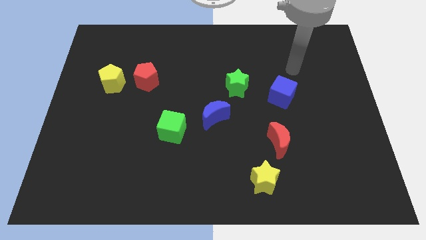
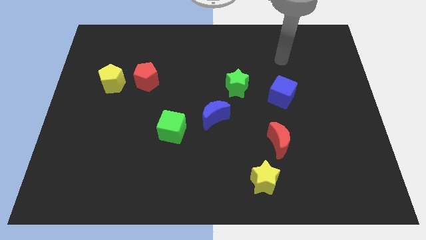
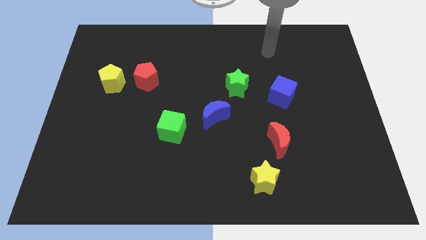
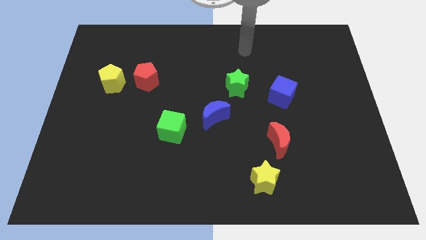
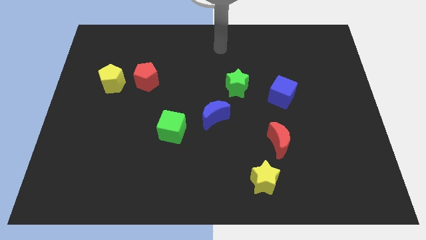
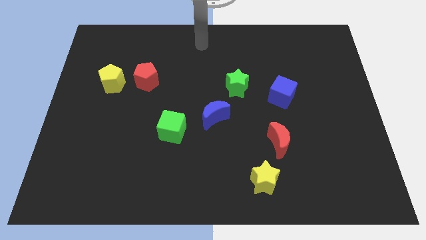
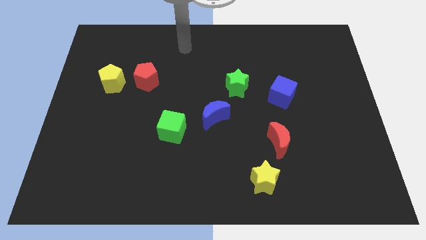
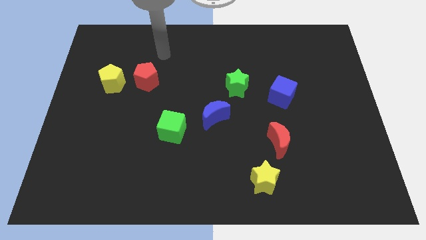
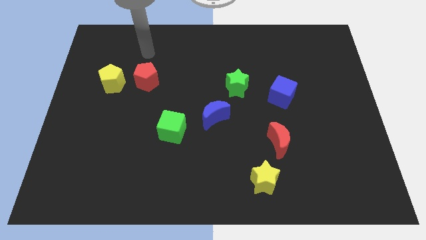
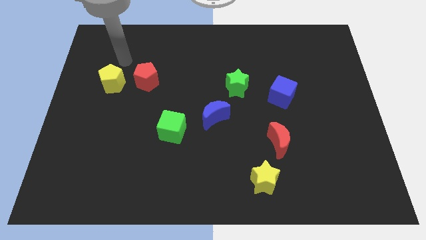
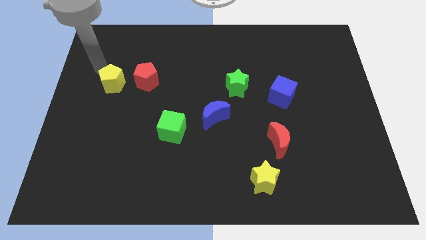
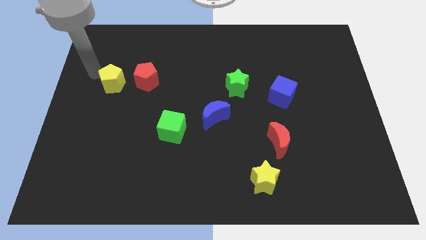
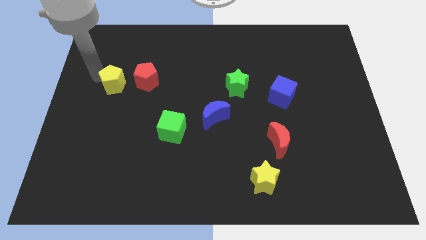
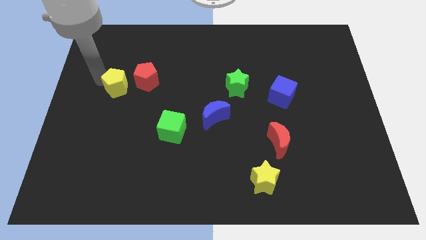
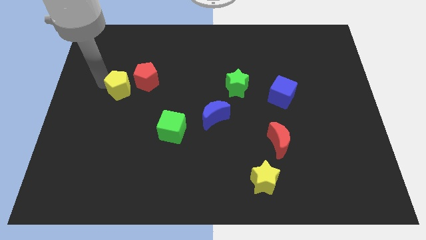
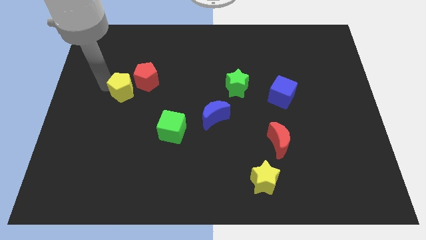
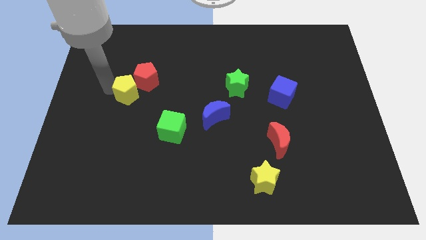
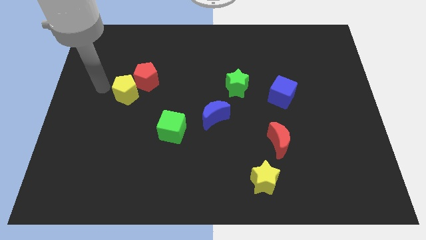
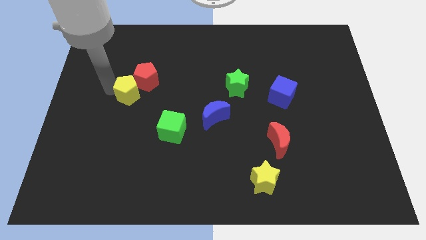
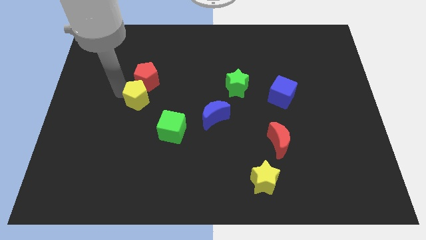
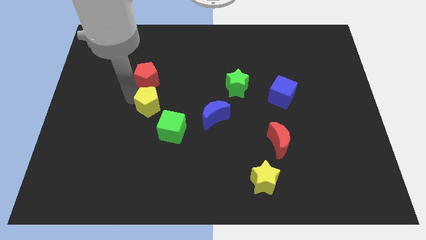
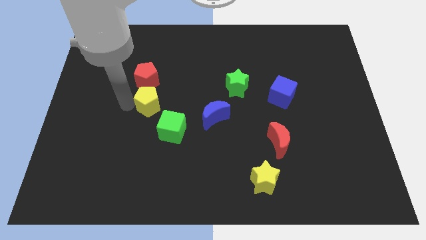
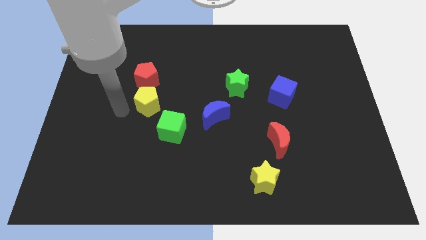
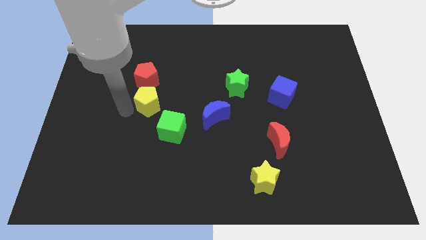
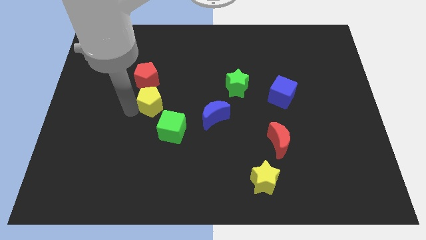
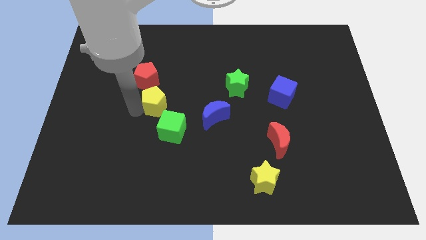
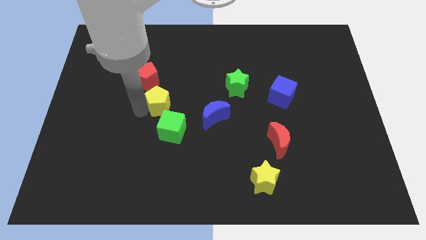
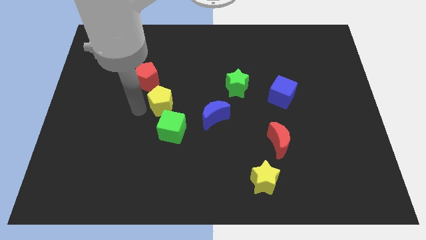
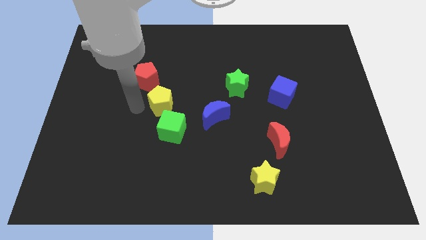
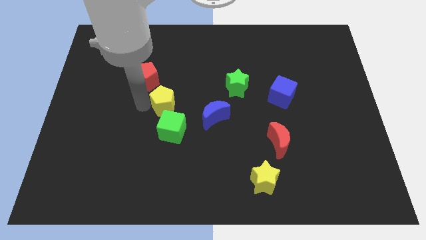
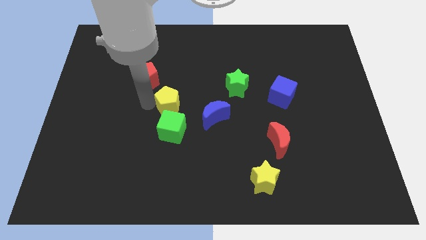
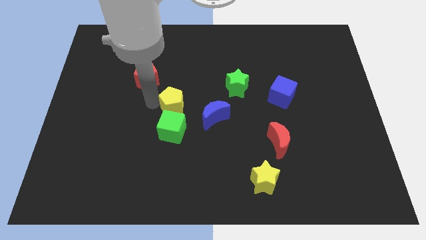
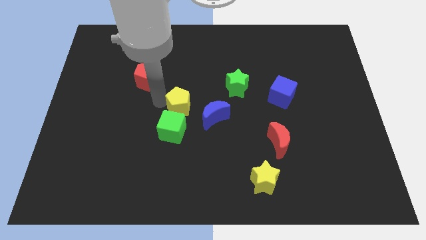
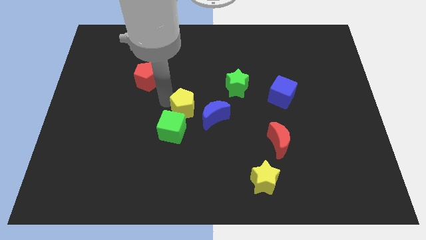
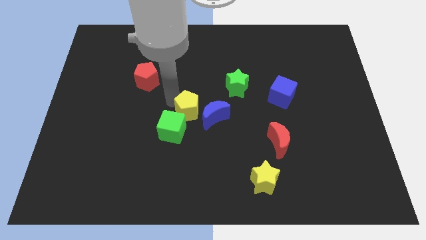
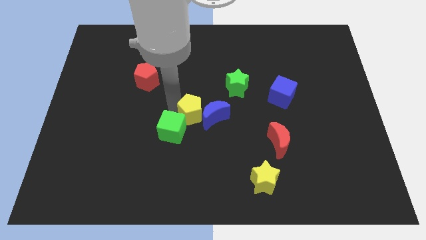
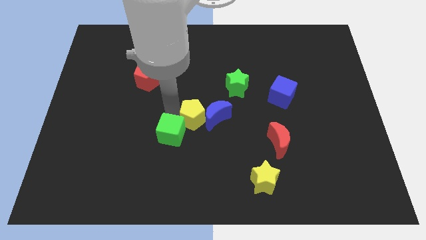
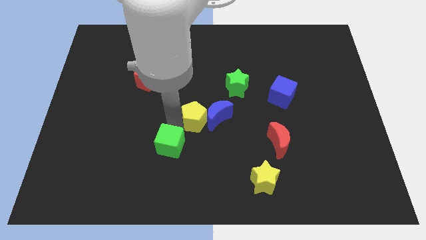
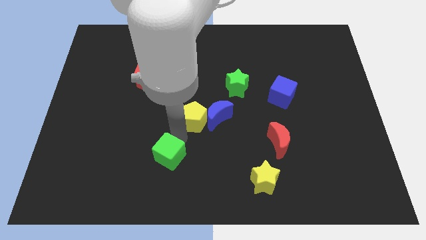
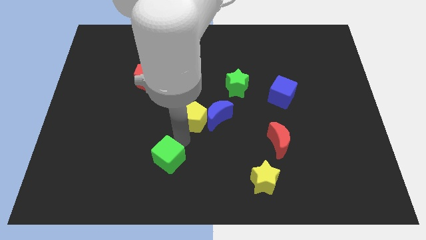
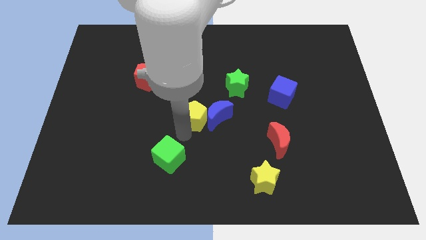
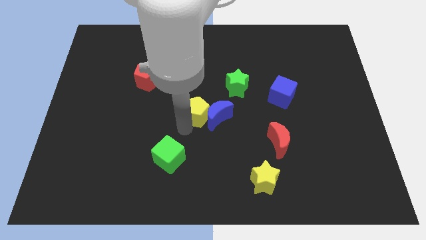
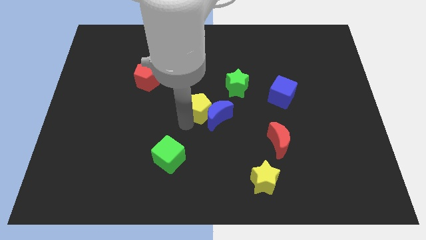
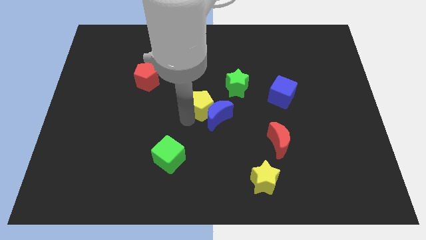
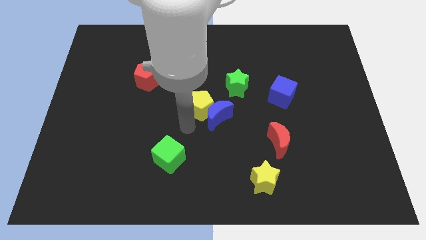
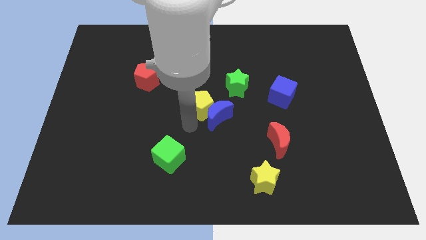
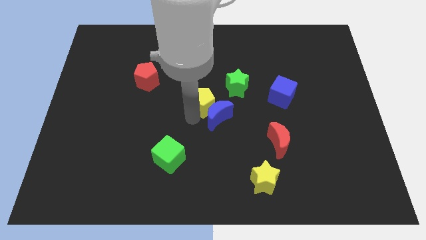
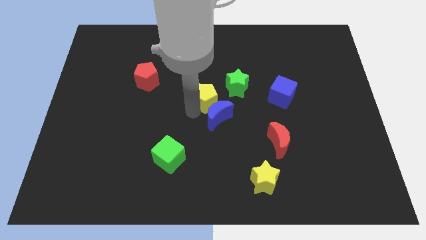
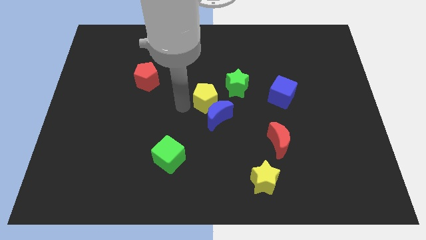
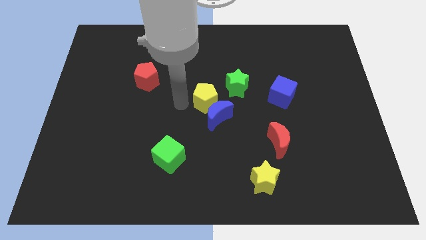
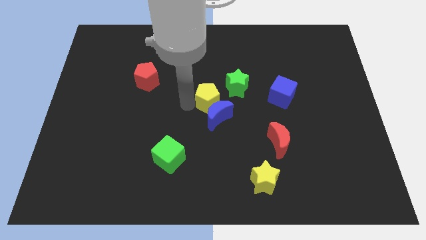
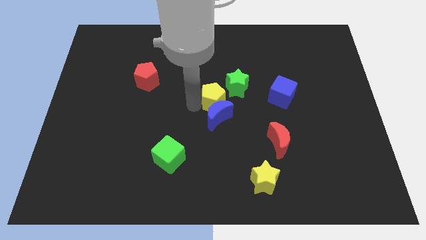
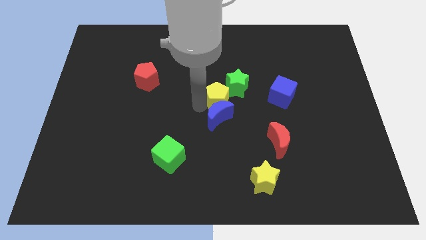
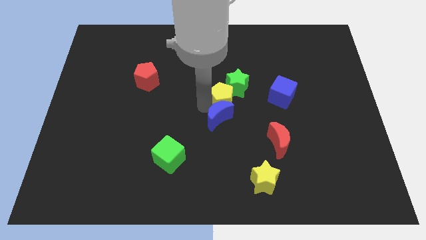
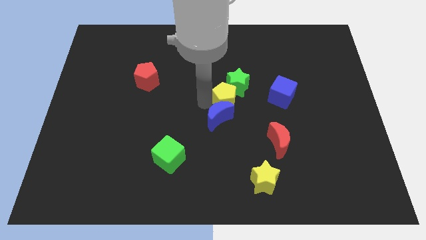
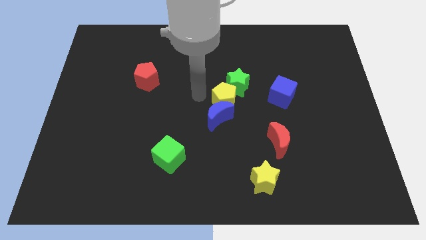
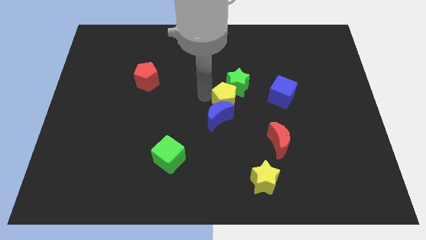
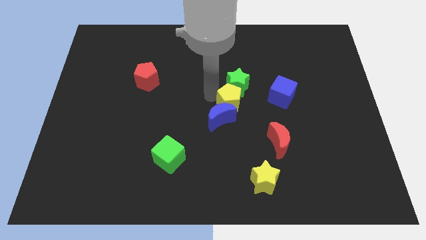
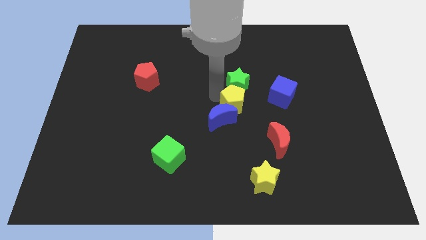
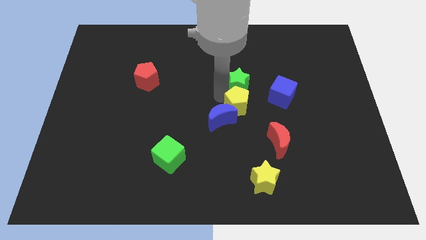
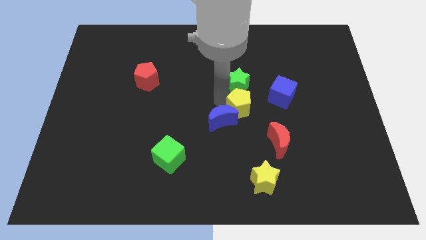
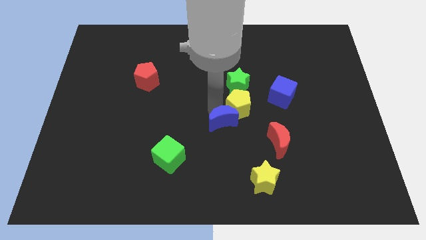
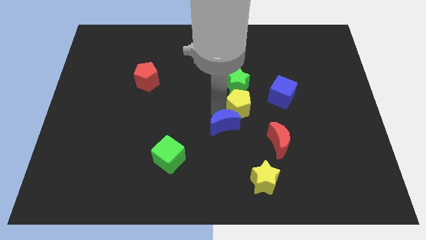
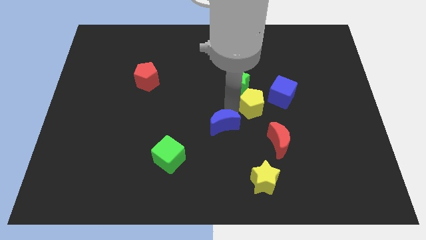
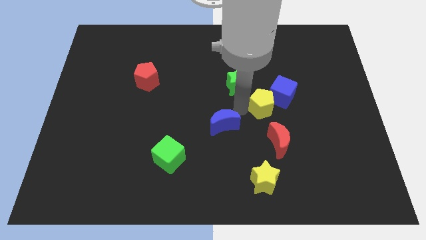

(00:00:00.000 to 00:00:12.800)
slide the yellow pentagon next to the blue cube

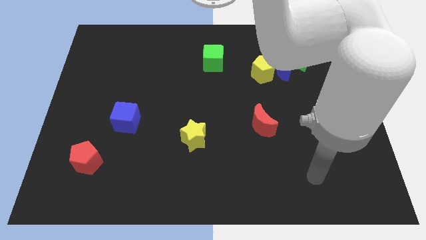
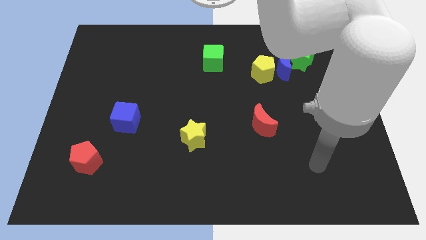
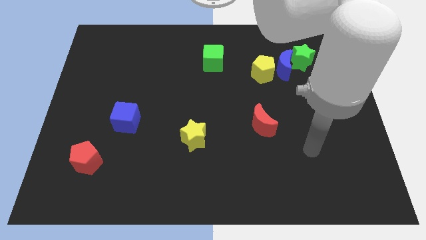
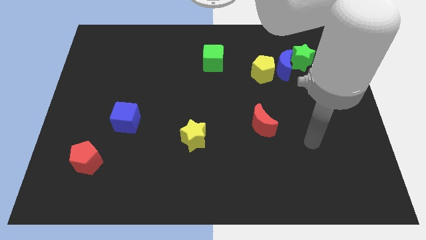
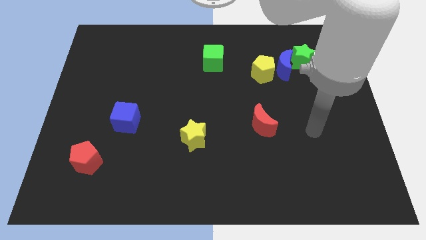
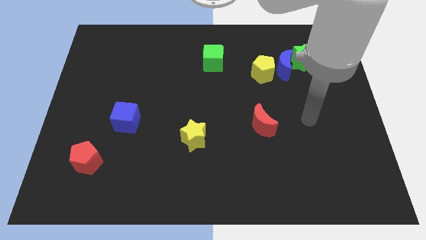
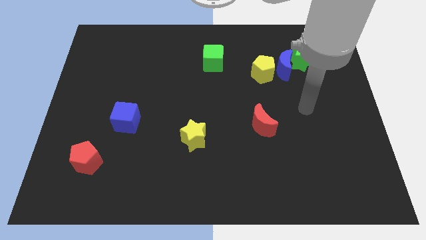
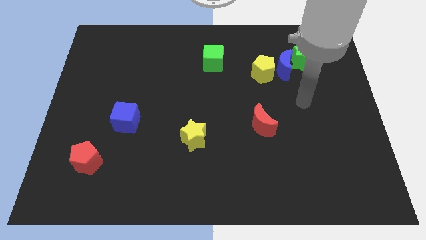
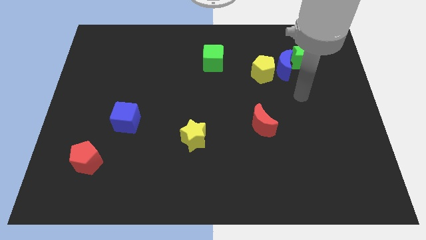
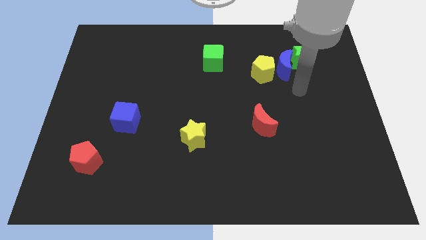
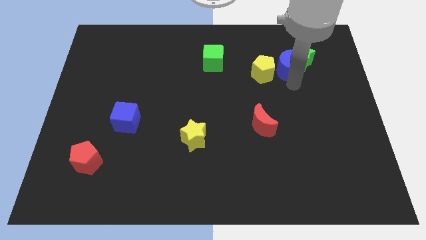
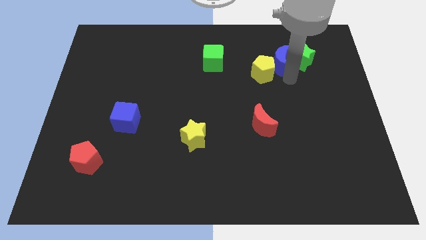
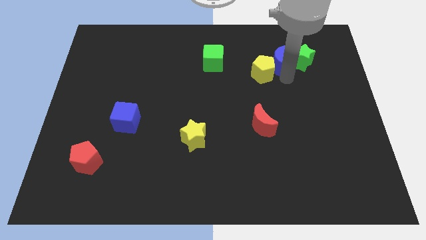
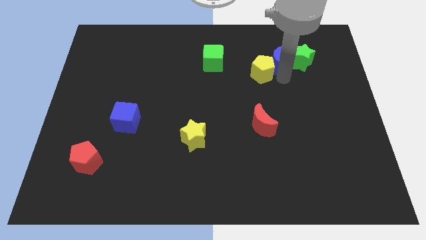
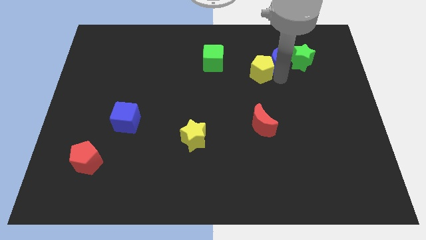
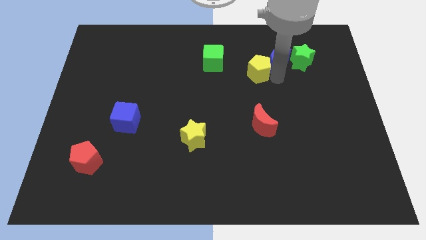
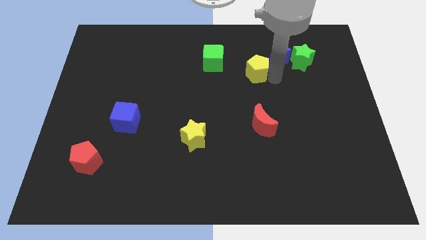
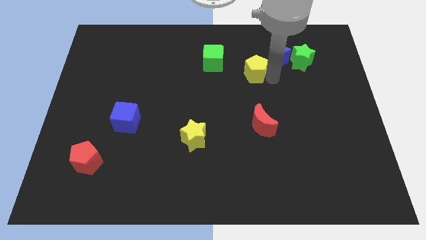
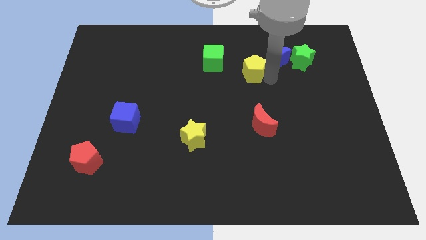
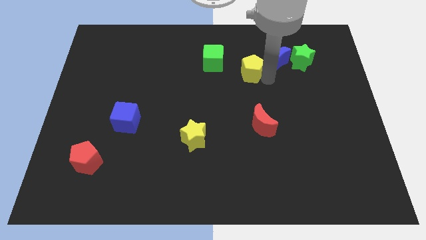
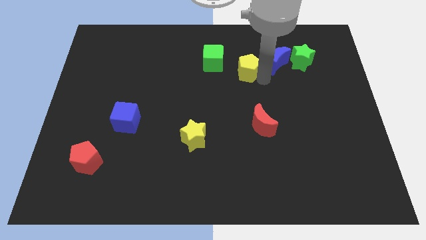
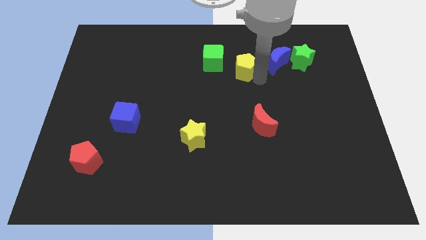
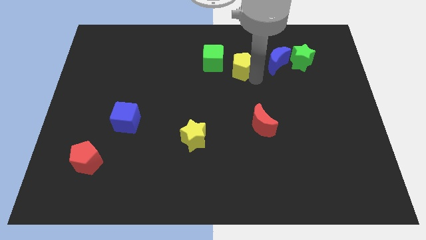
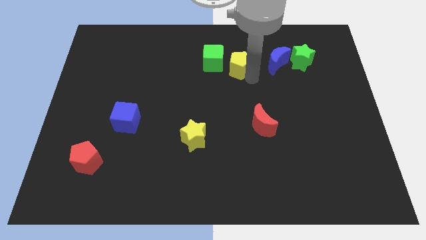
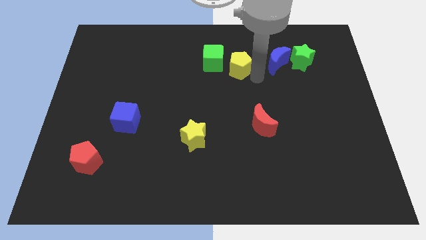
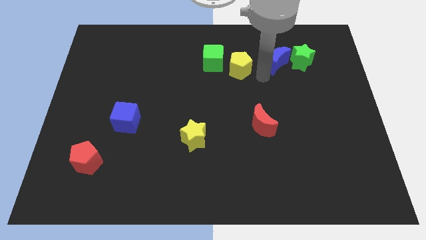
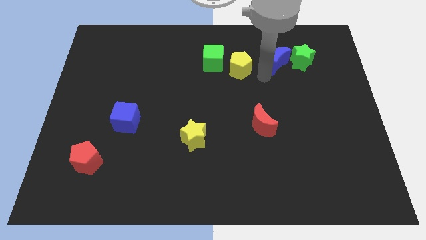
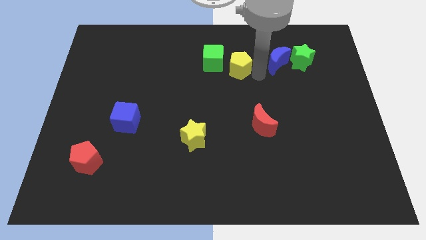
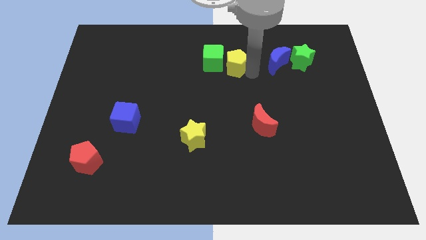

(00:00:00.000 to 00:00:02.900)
move the yellow pentagon next to the green cube
